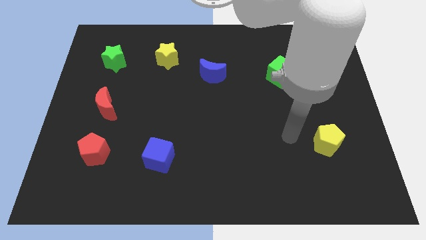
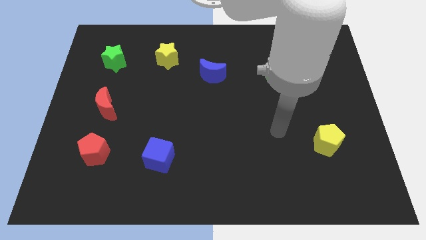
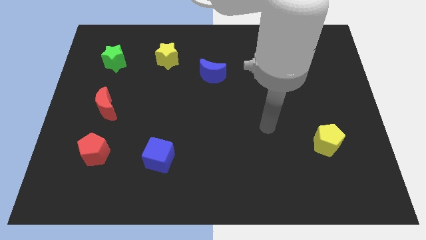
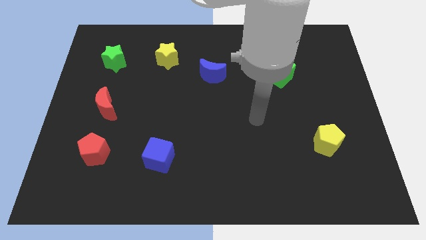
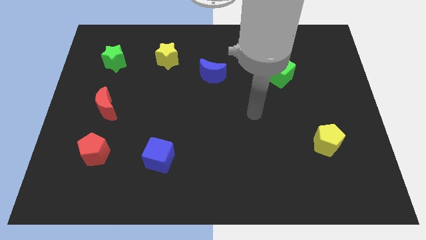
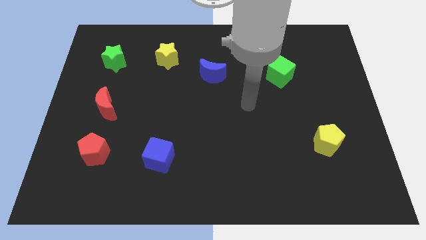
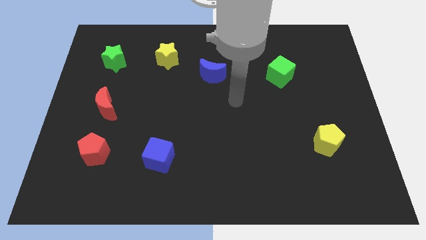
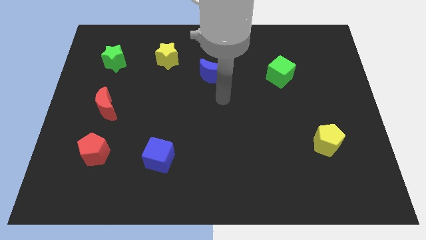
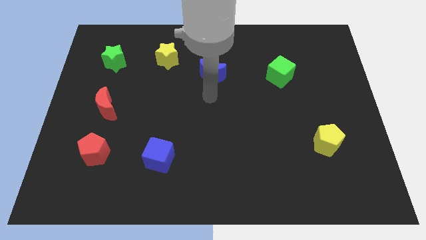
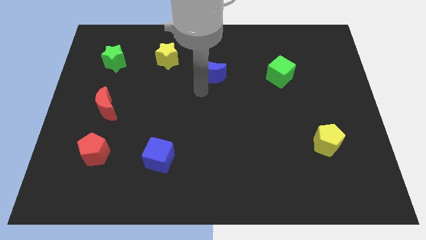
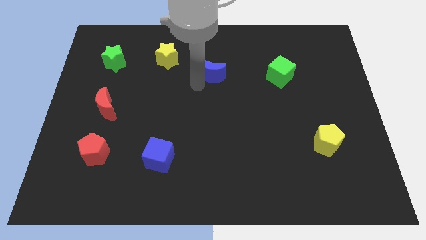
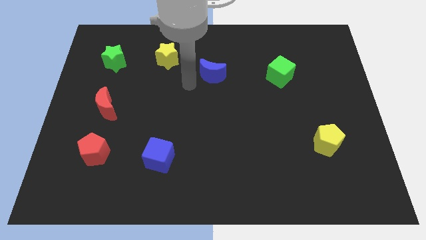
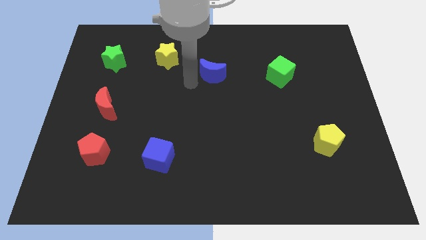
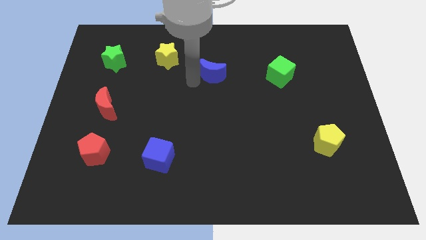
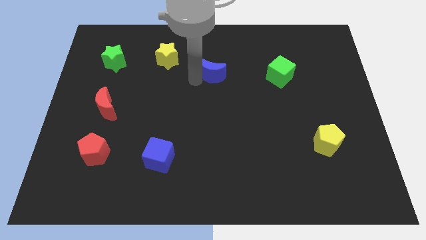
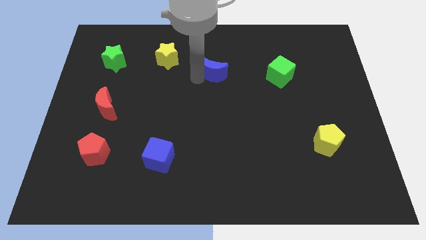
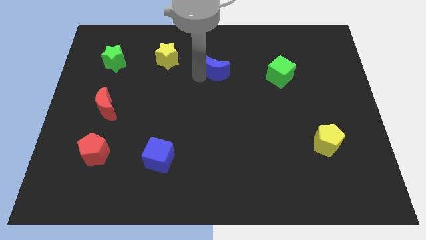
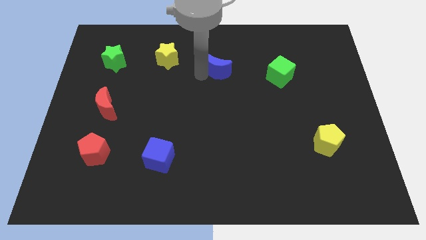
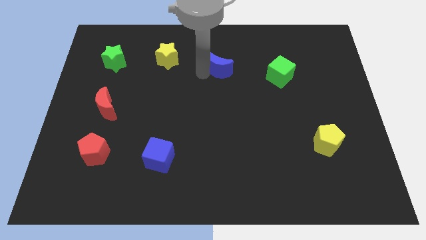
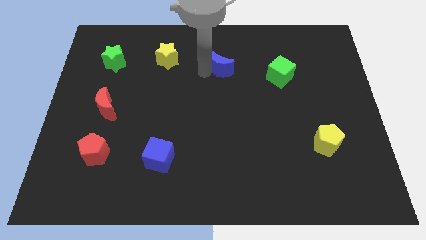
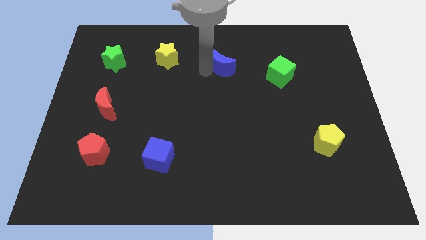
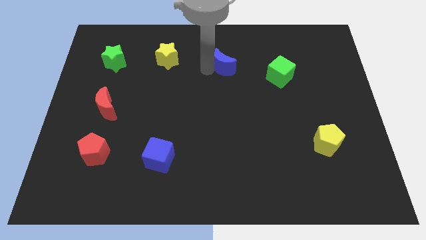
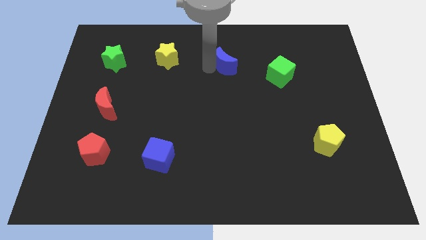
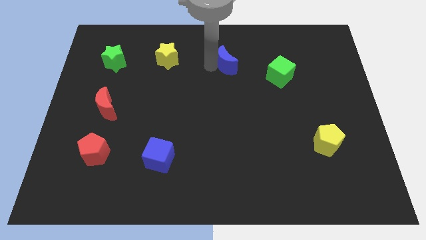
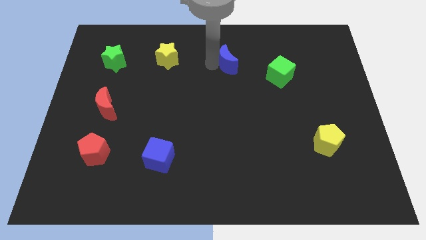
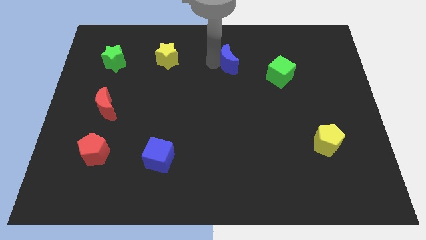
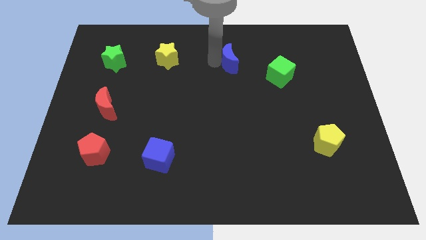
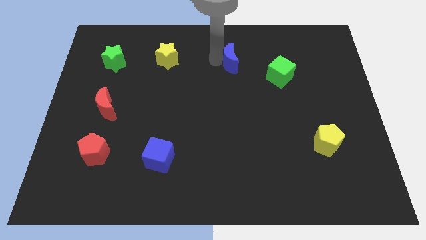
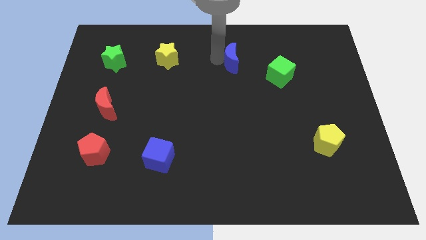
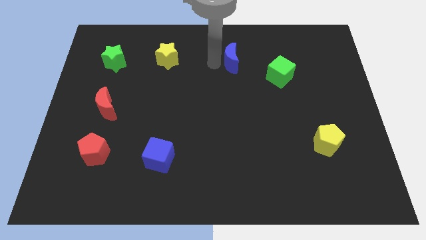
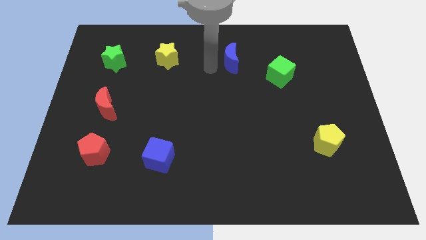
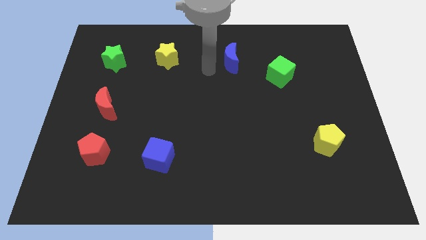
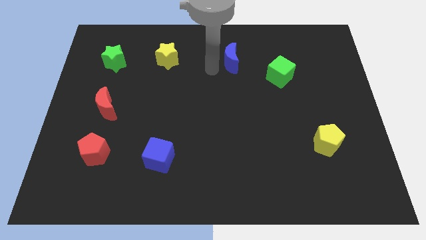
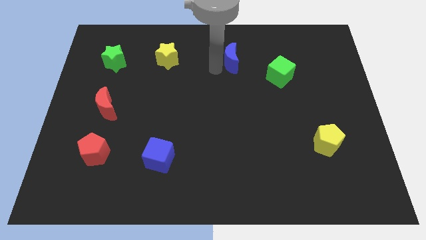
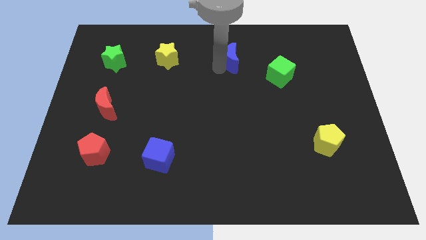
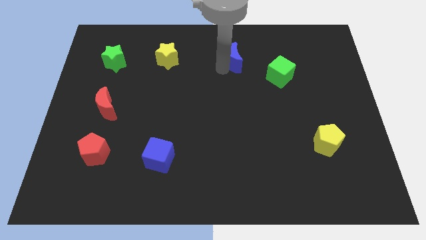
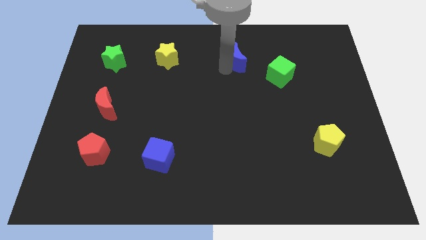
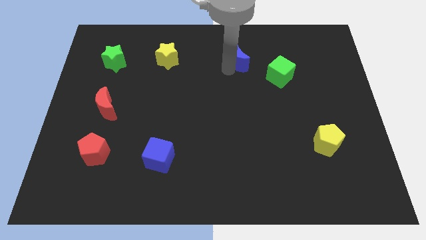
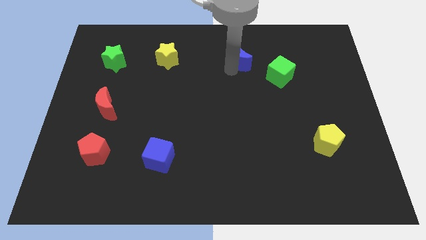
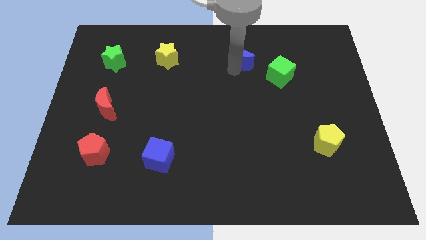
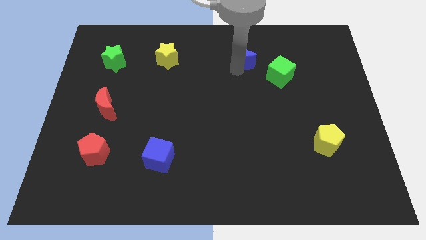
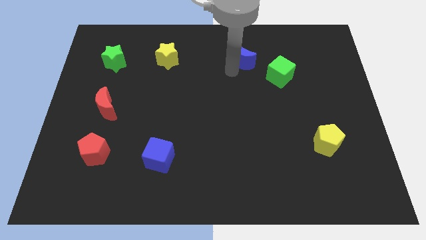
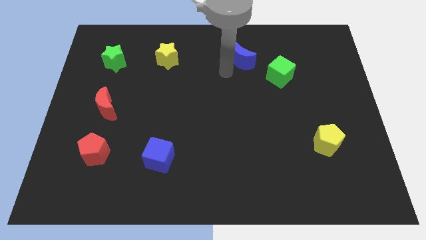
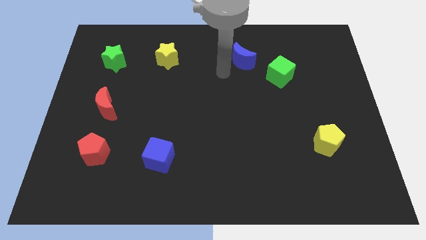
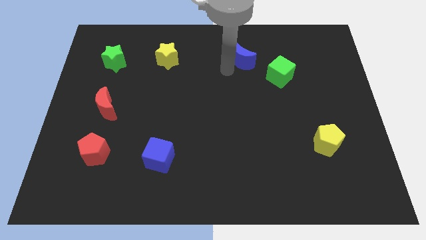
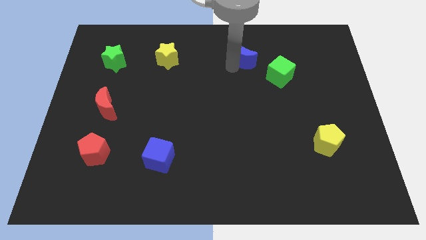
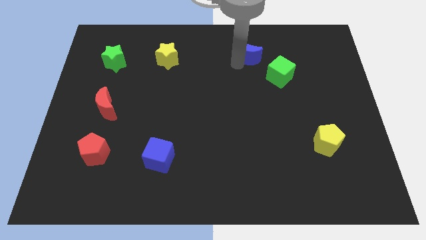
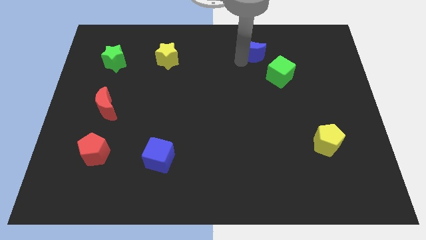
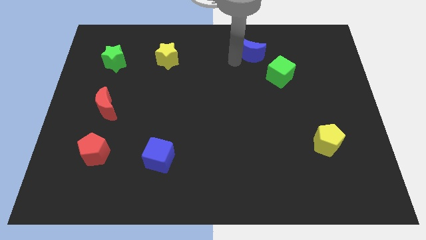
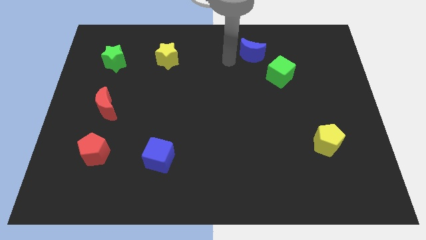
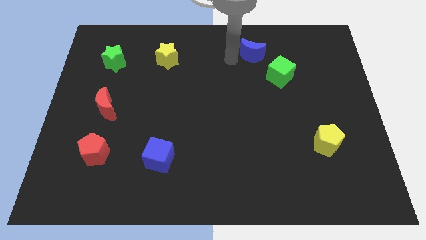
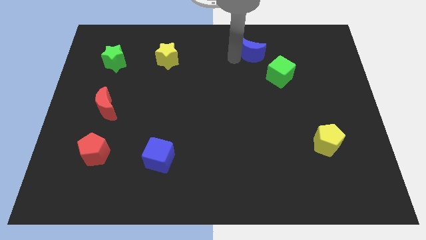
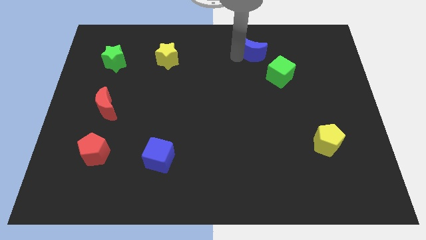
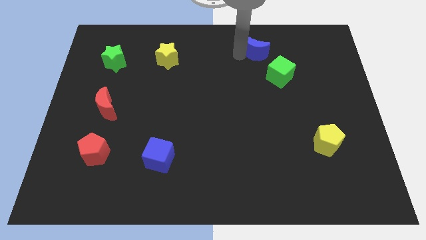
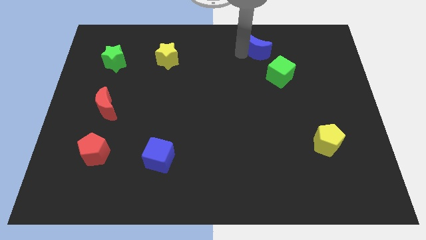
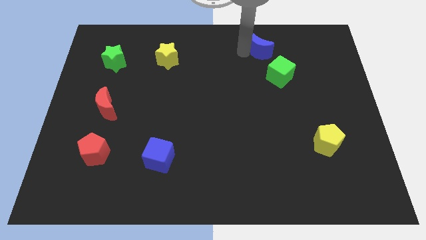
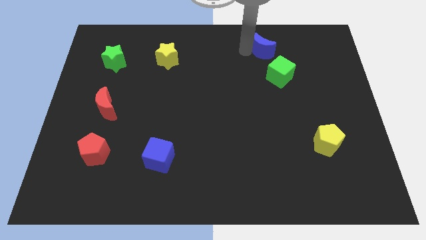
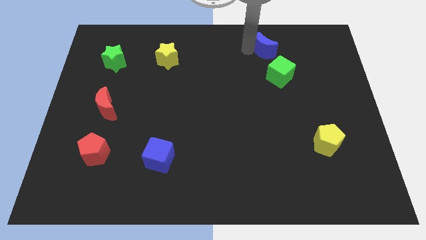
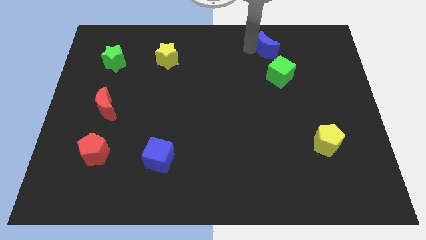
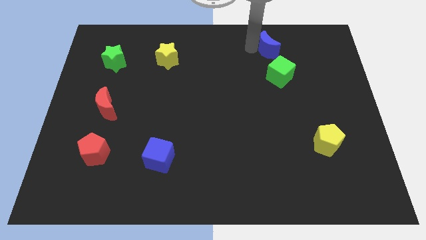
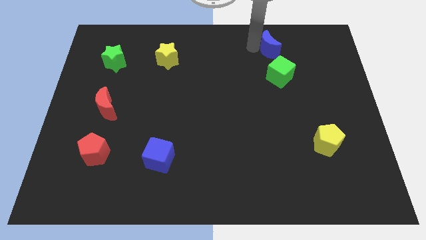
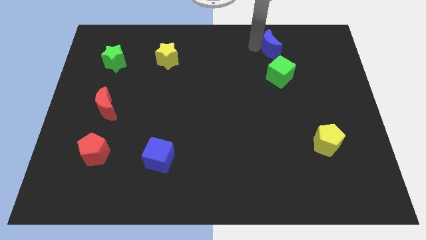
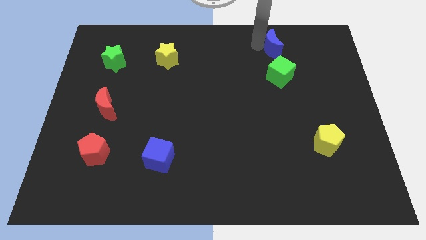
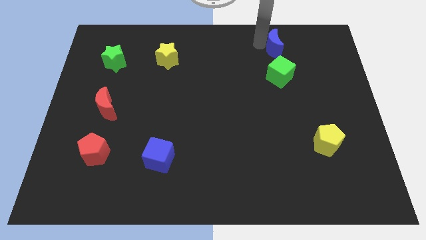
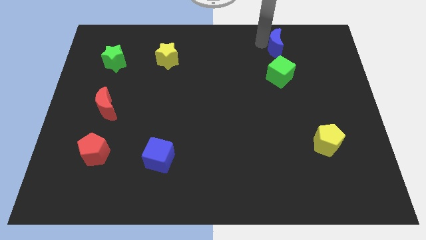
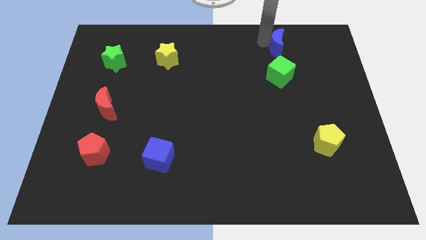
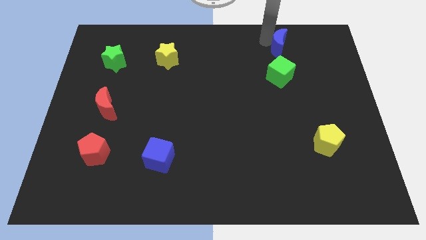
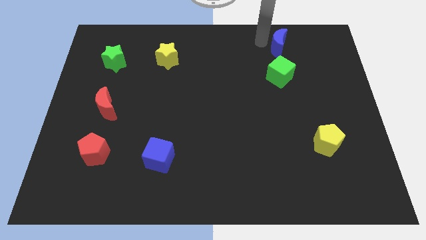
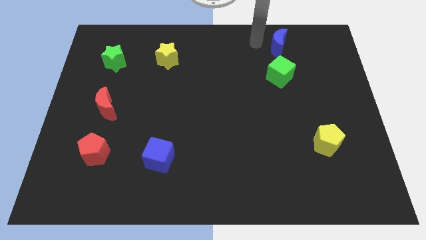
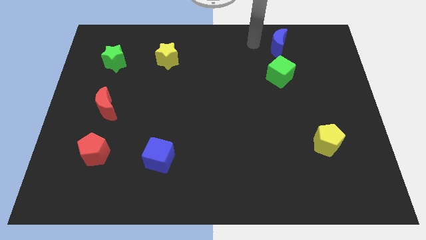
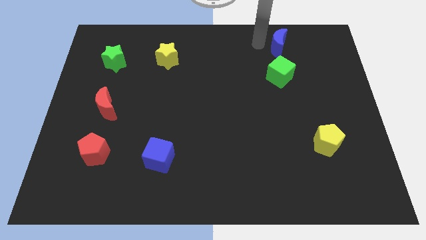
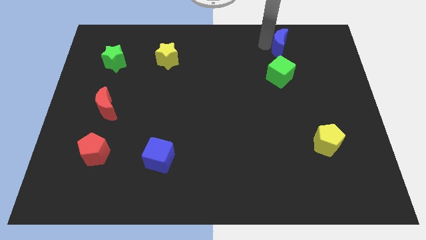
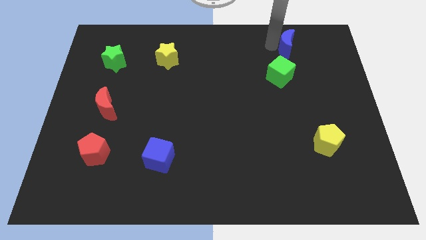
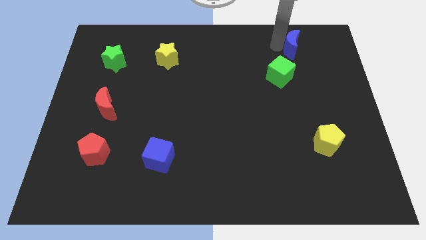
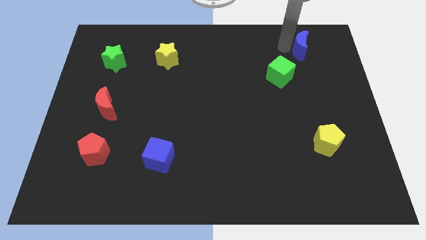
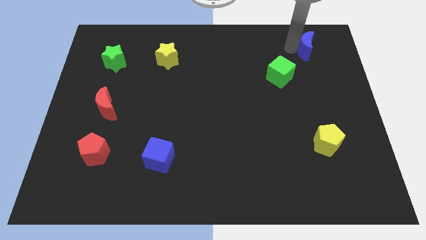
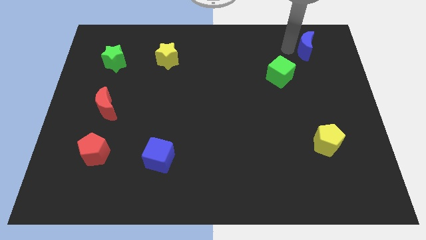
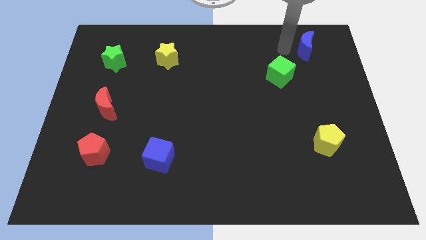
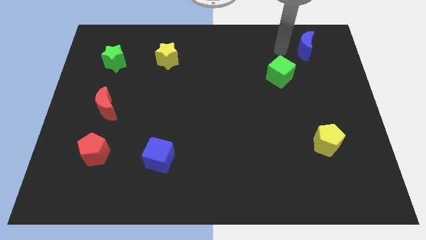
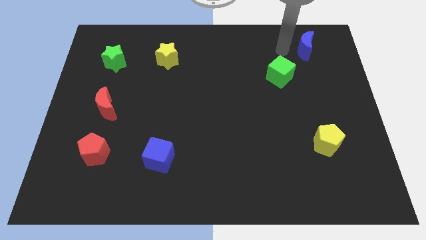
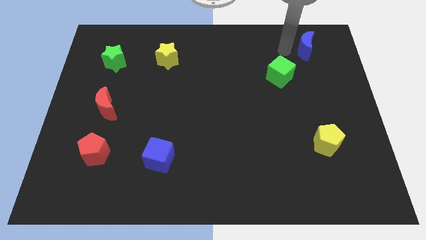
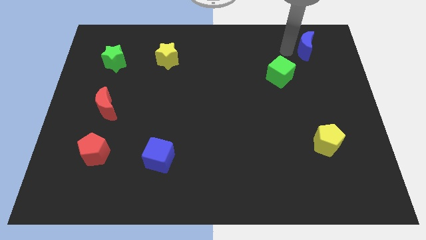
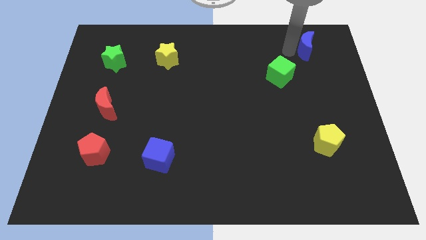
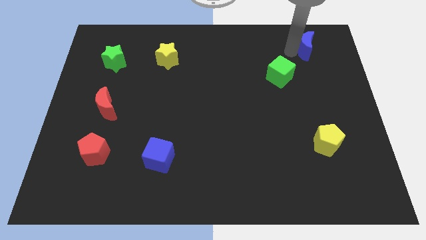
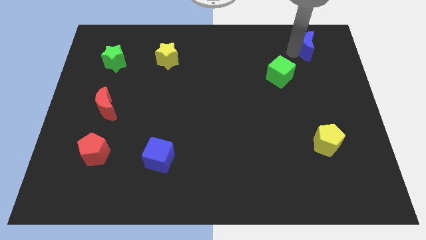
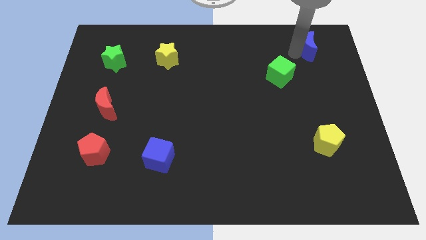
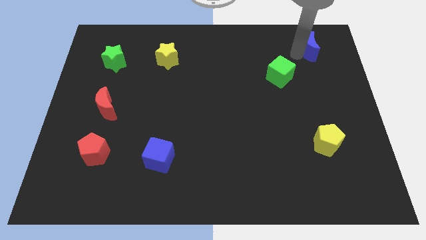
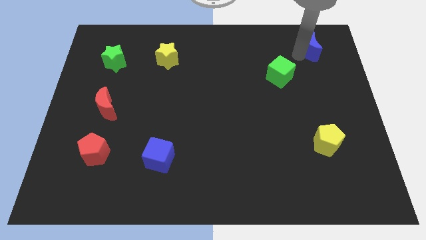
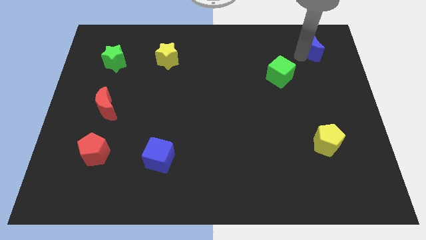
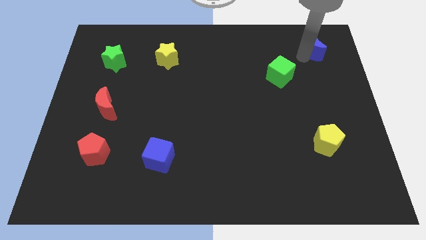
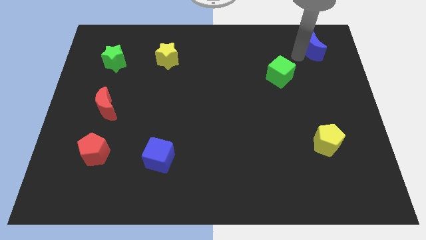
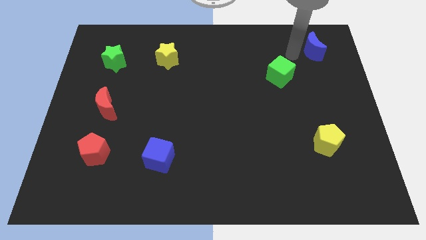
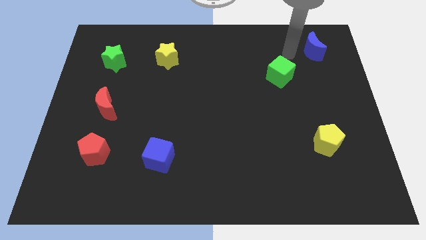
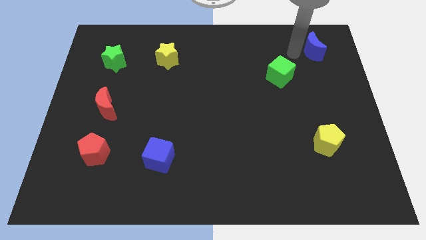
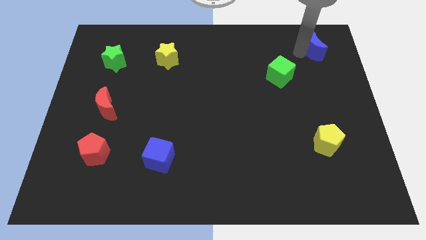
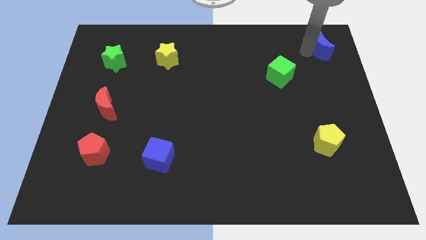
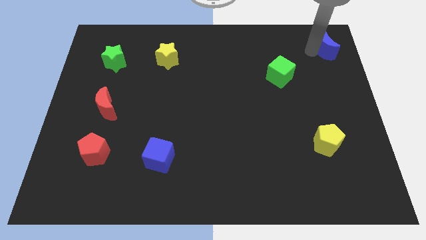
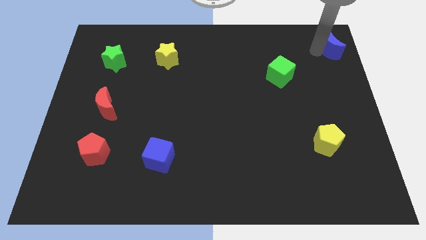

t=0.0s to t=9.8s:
move the blue moon to the top right
